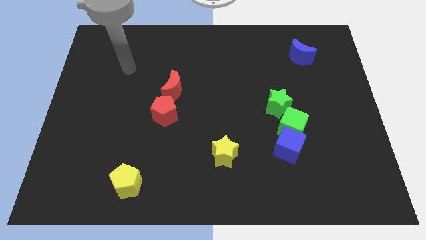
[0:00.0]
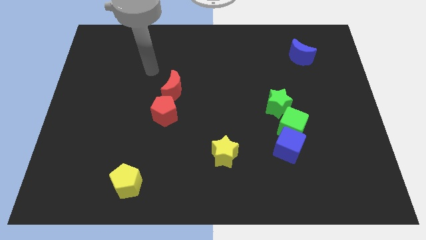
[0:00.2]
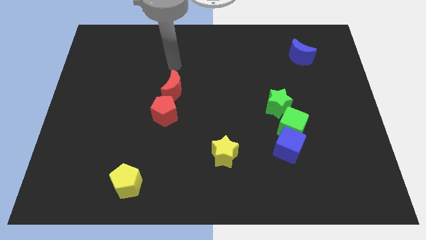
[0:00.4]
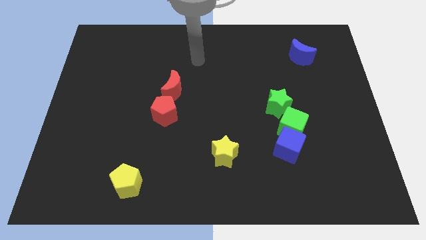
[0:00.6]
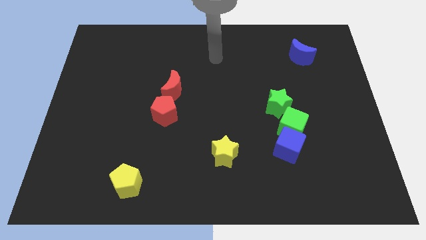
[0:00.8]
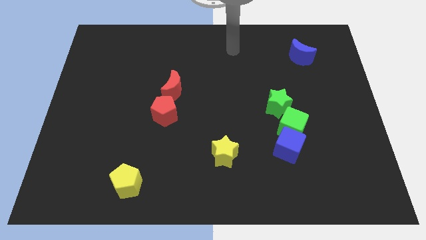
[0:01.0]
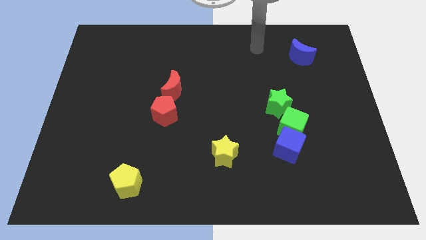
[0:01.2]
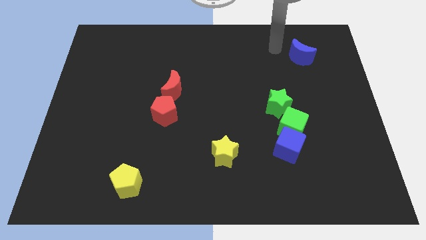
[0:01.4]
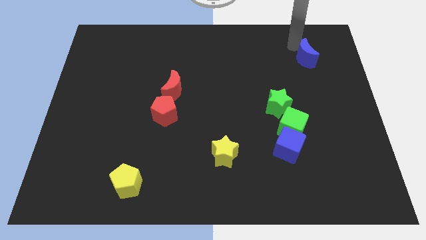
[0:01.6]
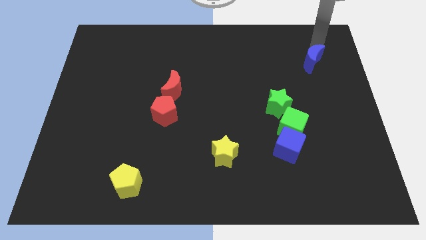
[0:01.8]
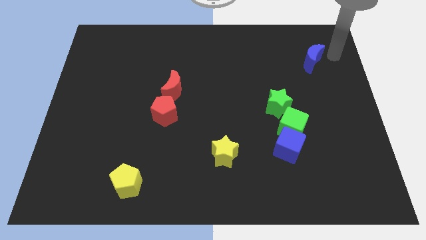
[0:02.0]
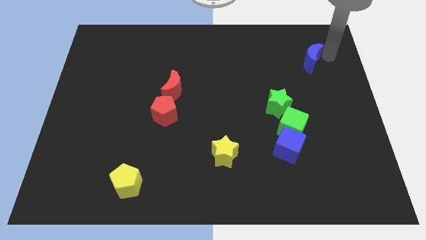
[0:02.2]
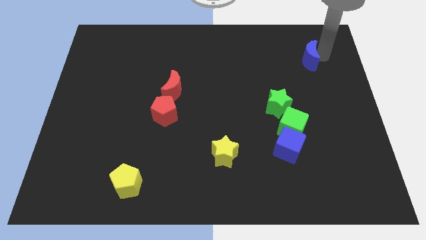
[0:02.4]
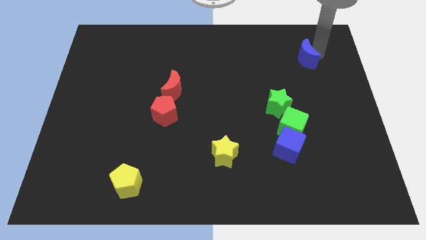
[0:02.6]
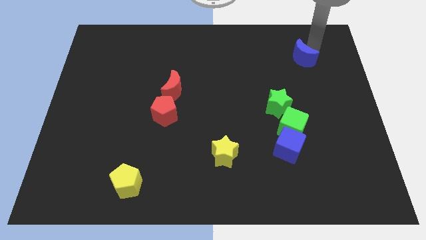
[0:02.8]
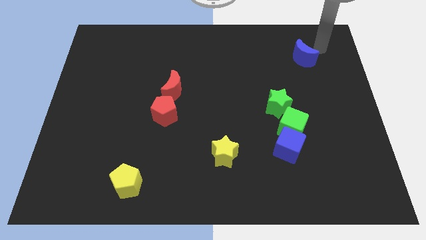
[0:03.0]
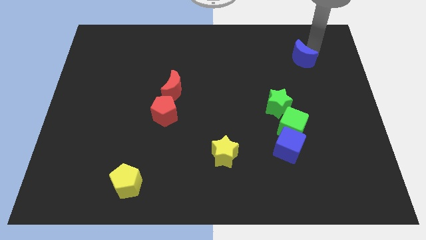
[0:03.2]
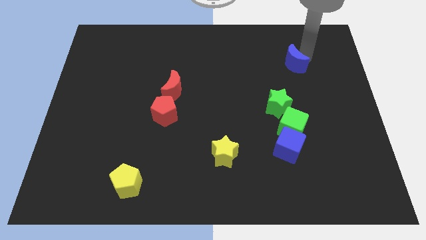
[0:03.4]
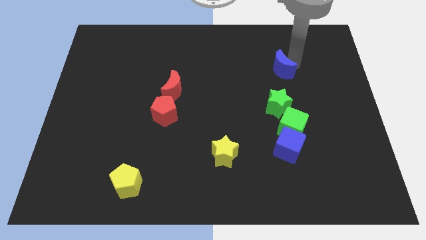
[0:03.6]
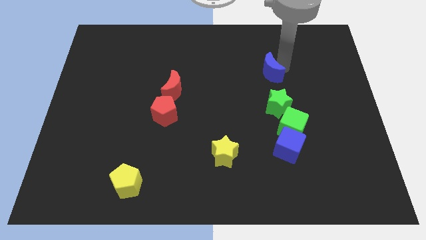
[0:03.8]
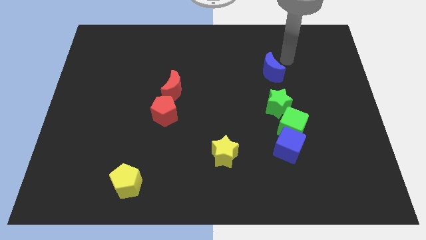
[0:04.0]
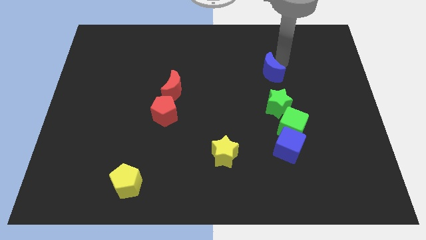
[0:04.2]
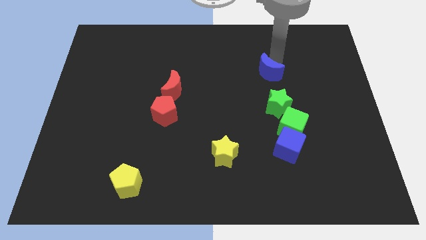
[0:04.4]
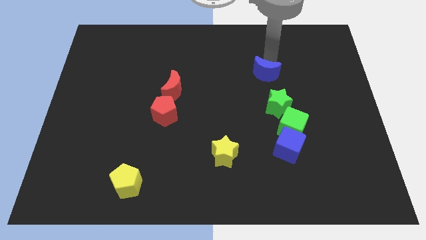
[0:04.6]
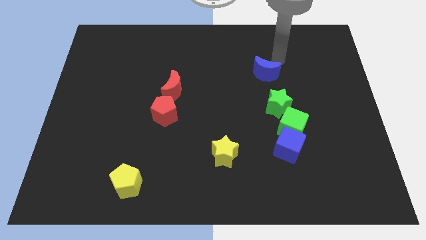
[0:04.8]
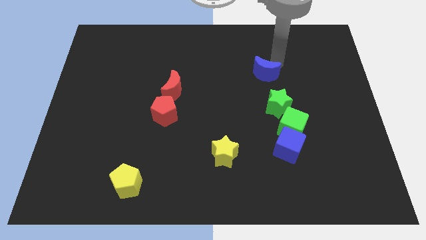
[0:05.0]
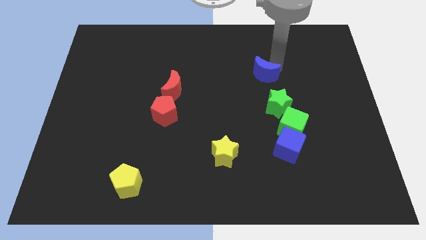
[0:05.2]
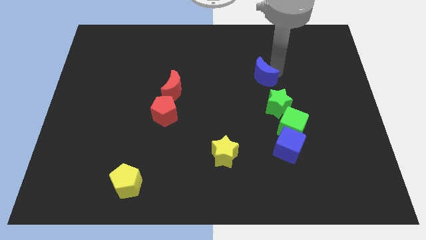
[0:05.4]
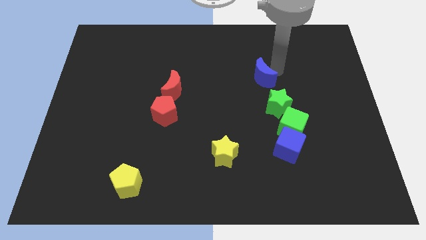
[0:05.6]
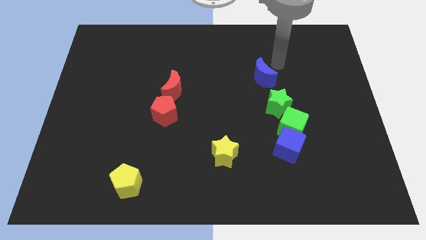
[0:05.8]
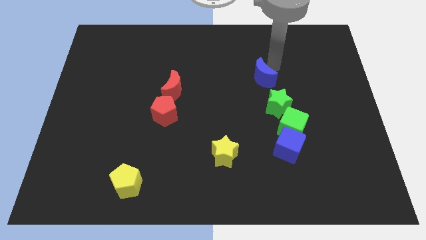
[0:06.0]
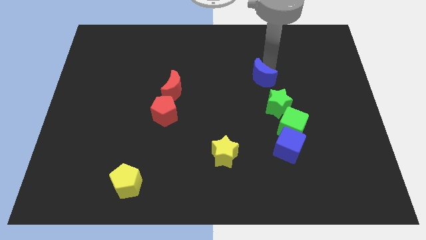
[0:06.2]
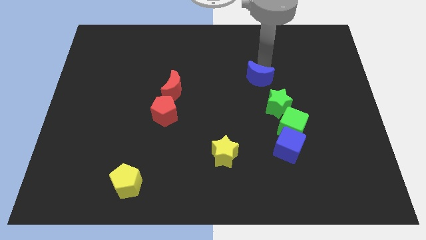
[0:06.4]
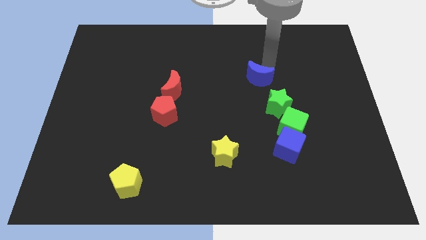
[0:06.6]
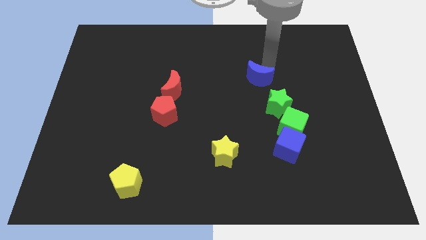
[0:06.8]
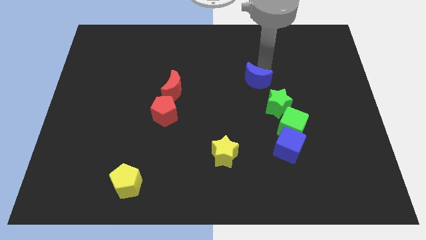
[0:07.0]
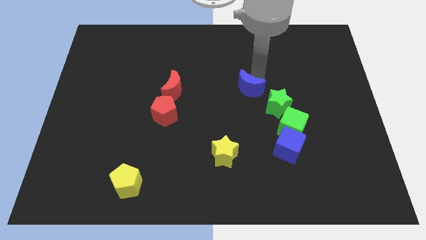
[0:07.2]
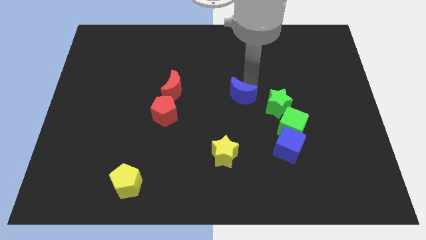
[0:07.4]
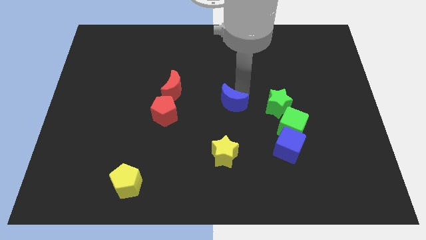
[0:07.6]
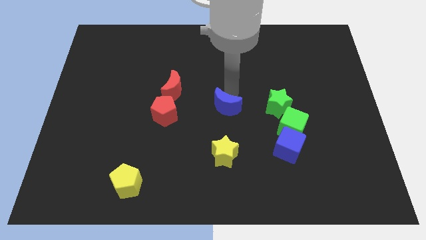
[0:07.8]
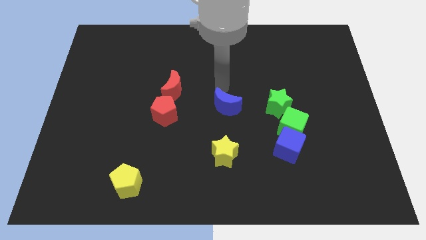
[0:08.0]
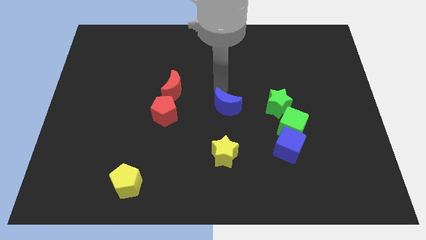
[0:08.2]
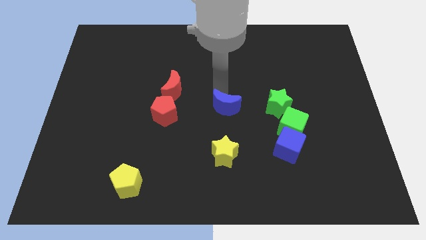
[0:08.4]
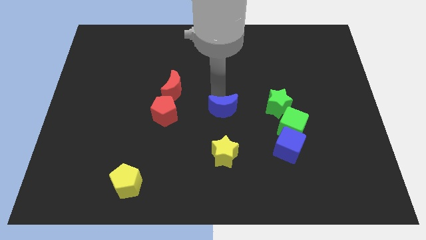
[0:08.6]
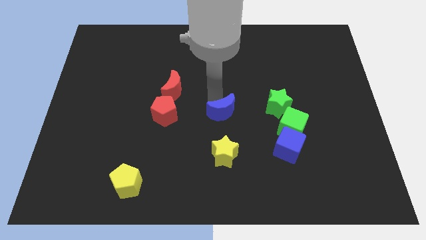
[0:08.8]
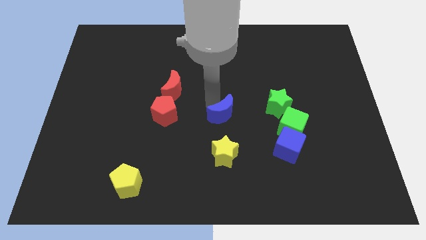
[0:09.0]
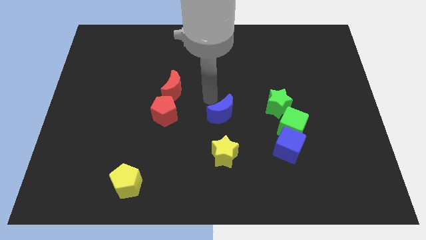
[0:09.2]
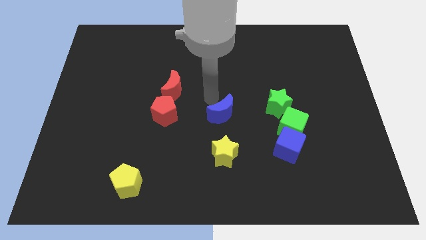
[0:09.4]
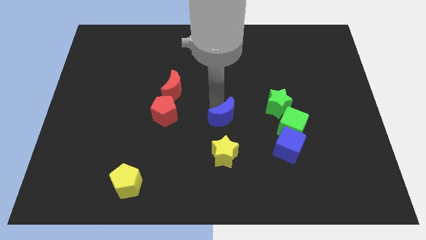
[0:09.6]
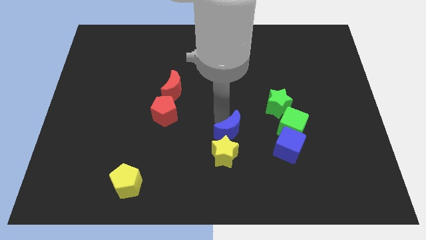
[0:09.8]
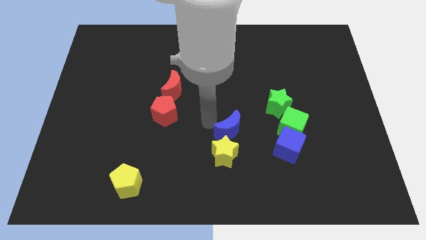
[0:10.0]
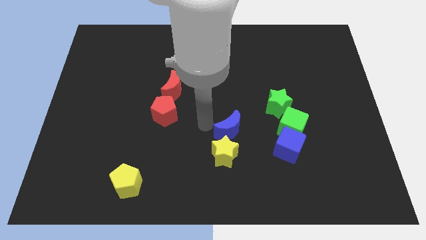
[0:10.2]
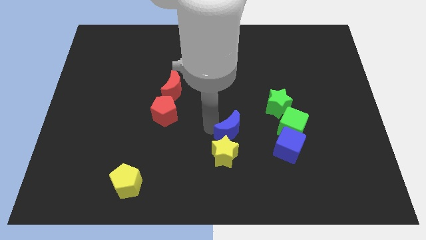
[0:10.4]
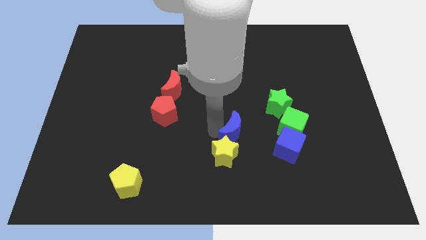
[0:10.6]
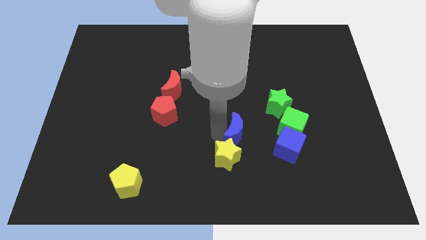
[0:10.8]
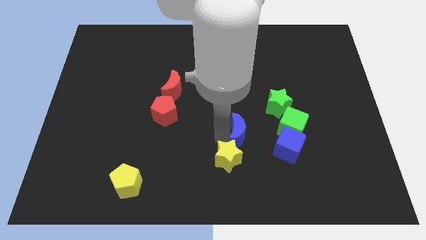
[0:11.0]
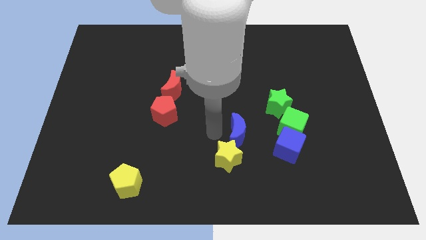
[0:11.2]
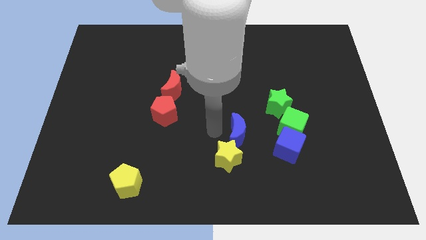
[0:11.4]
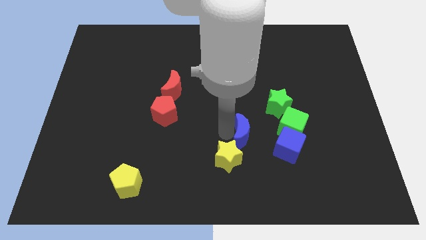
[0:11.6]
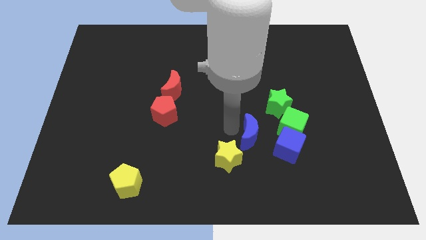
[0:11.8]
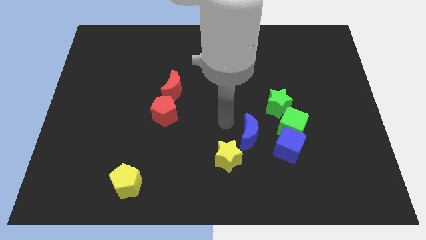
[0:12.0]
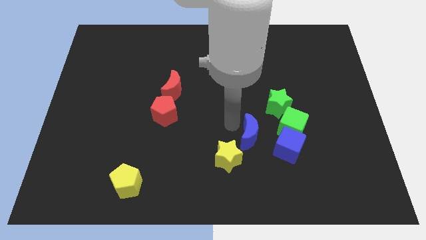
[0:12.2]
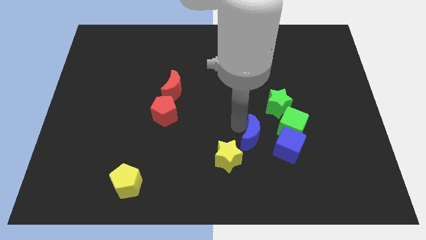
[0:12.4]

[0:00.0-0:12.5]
push the blue moon to the bottom left of the green cube

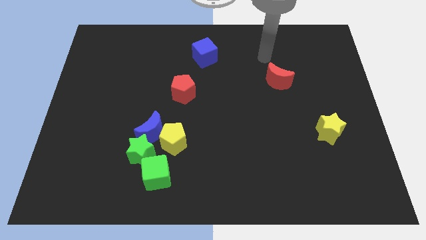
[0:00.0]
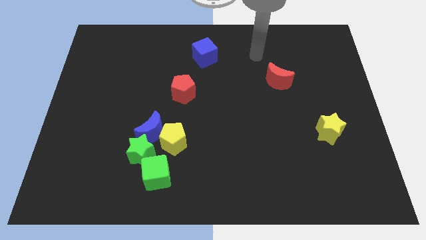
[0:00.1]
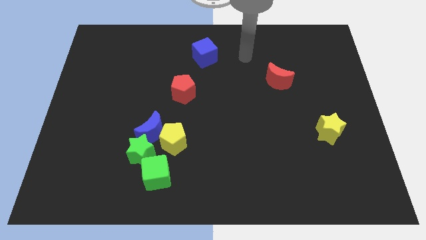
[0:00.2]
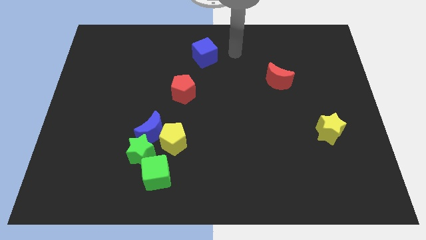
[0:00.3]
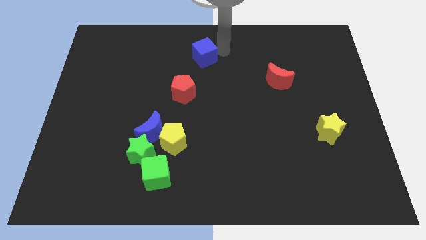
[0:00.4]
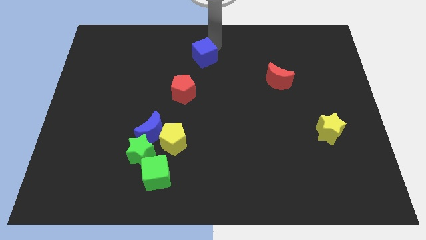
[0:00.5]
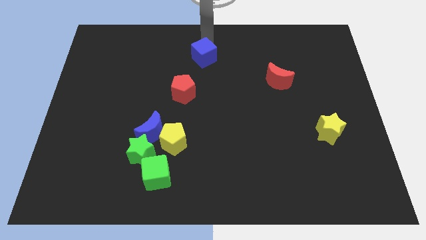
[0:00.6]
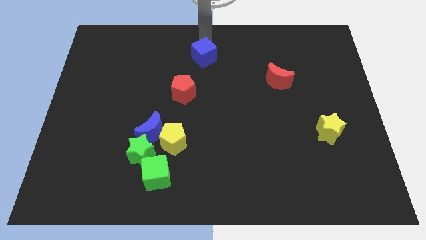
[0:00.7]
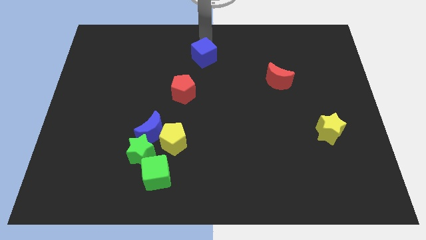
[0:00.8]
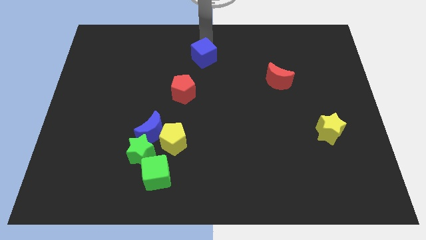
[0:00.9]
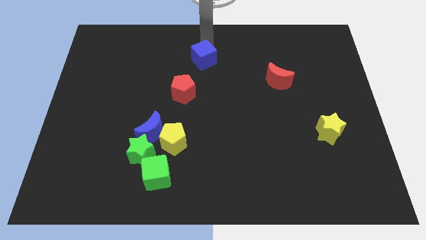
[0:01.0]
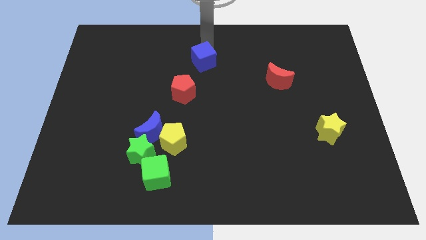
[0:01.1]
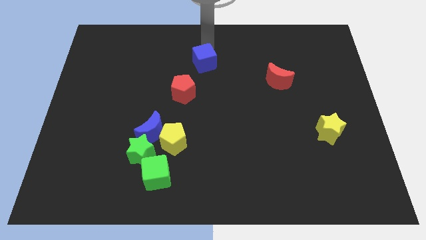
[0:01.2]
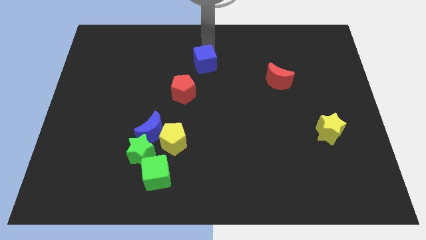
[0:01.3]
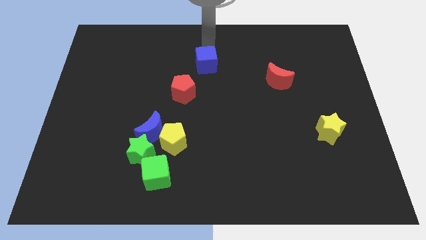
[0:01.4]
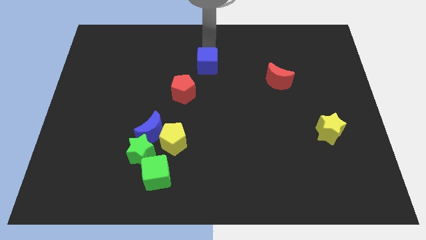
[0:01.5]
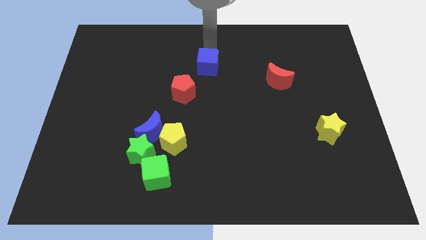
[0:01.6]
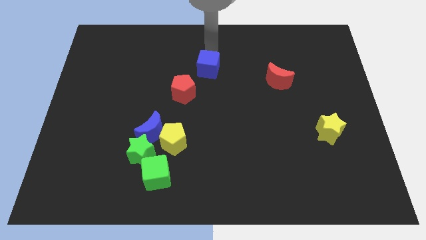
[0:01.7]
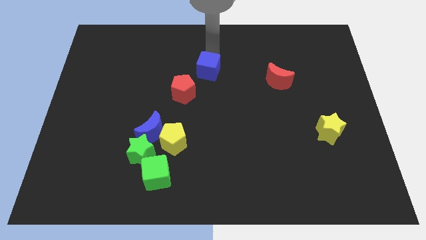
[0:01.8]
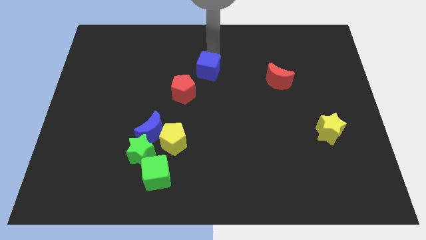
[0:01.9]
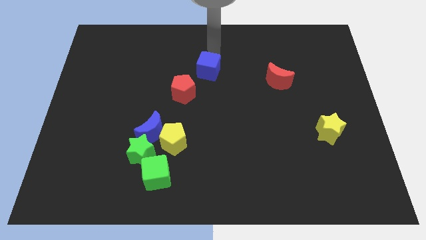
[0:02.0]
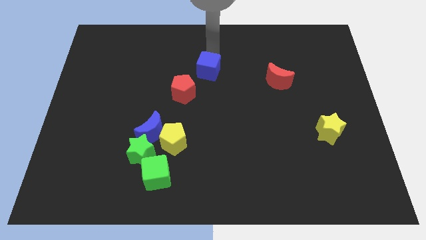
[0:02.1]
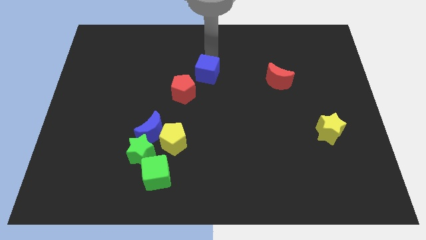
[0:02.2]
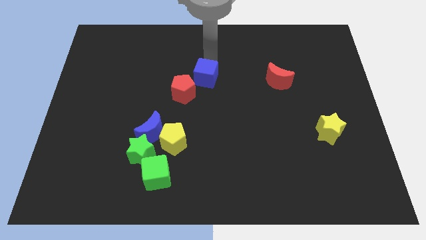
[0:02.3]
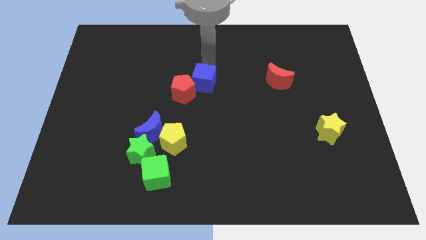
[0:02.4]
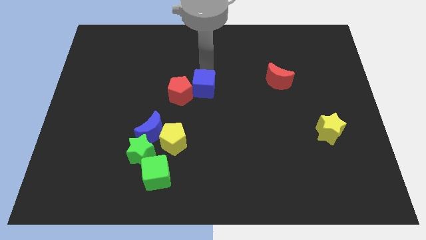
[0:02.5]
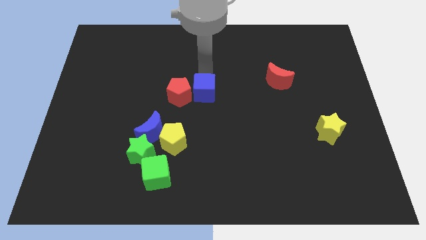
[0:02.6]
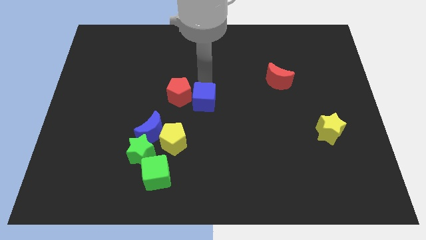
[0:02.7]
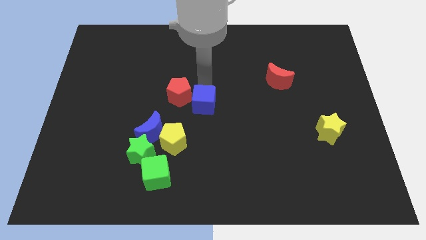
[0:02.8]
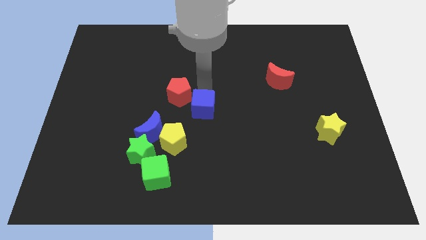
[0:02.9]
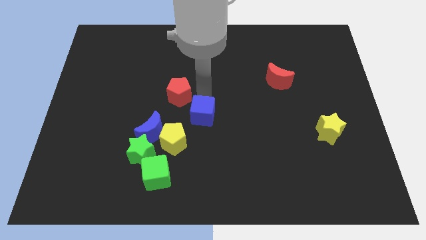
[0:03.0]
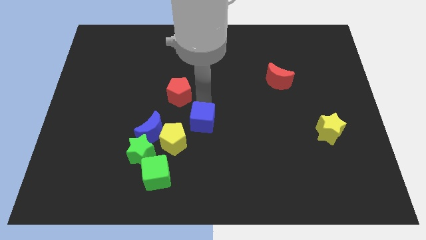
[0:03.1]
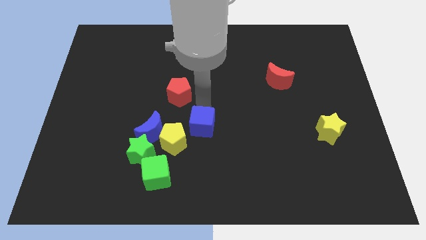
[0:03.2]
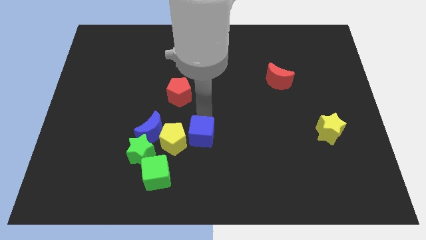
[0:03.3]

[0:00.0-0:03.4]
move the blue cube to the right of the green star
